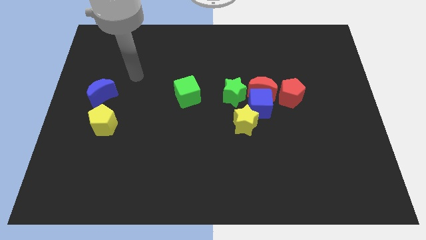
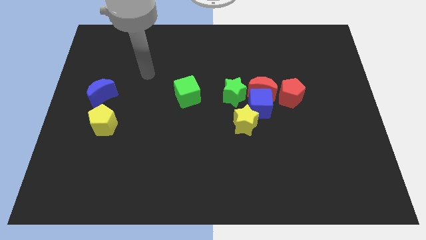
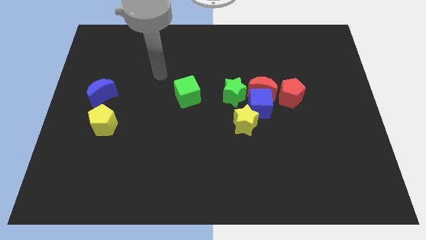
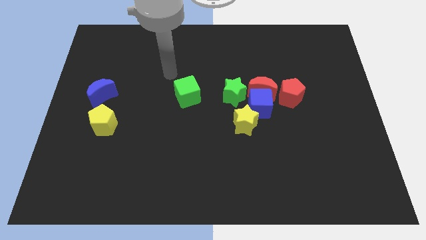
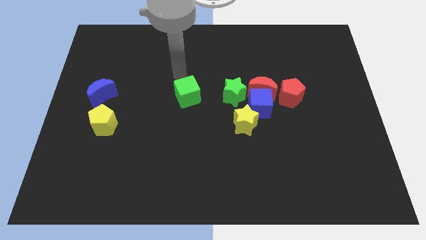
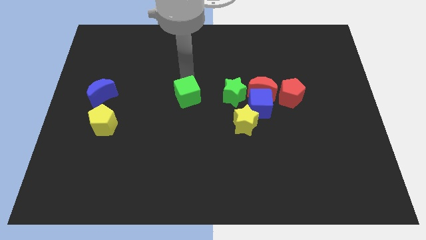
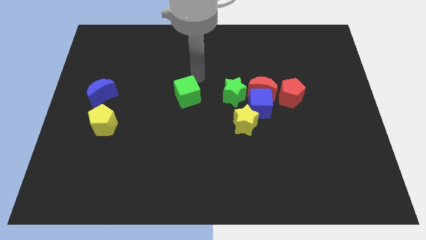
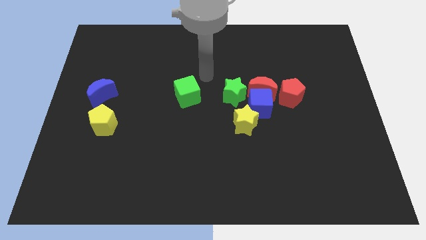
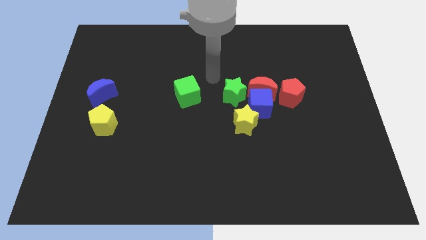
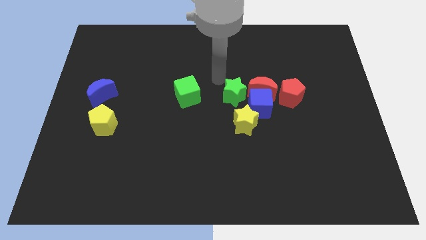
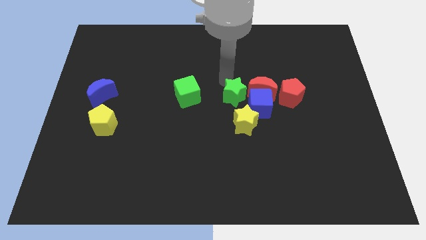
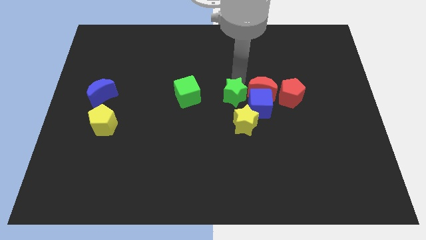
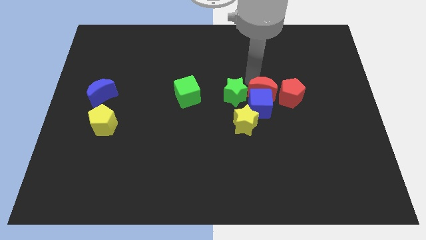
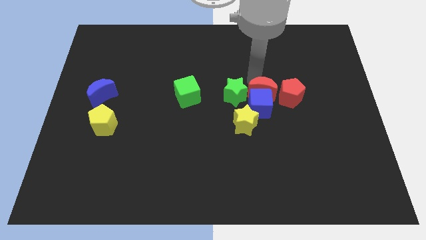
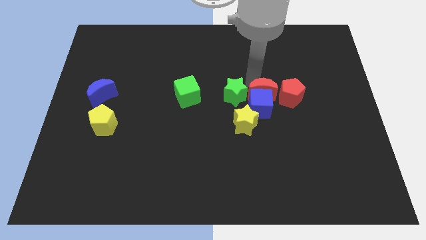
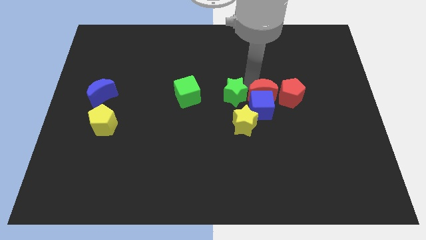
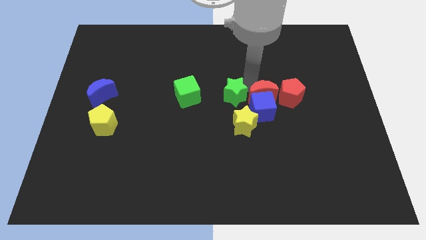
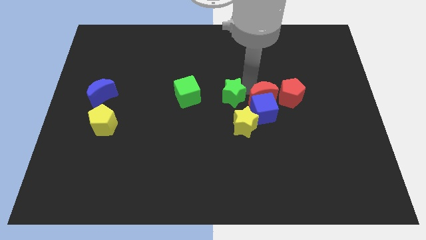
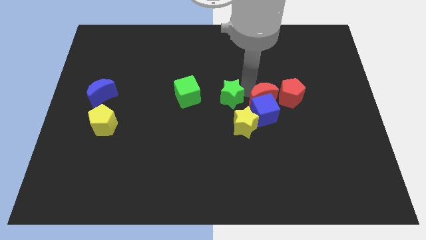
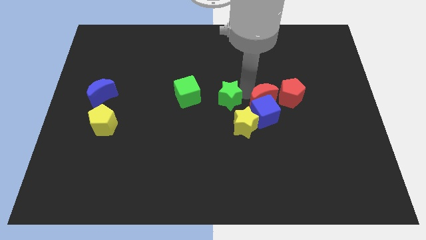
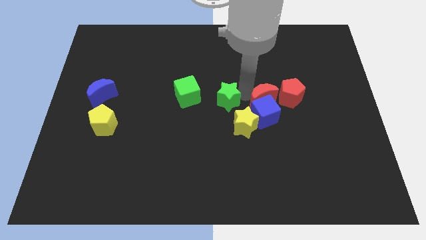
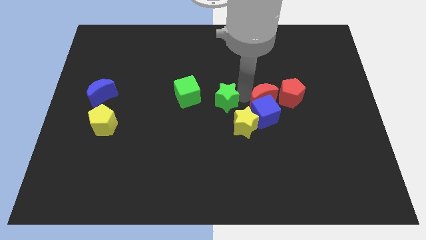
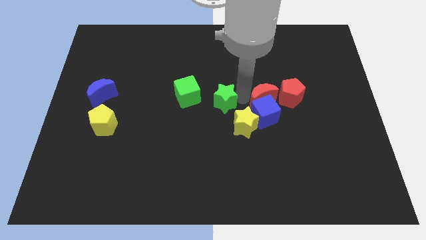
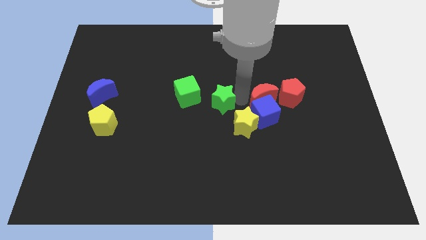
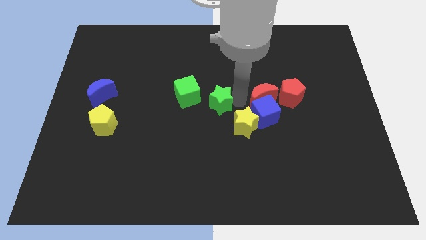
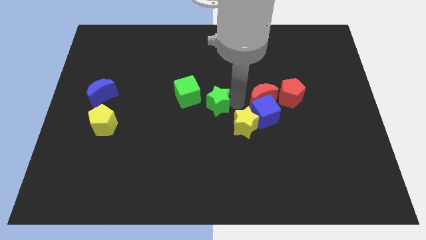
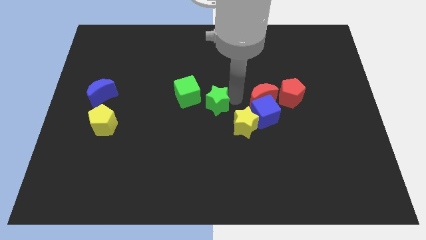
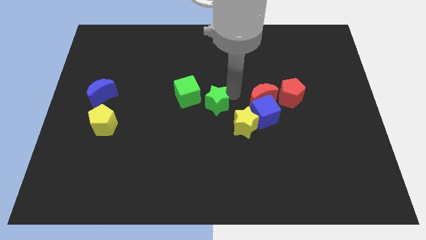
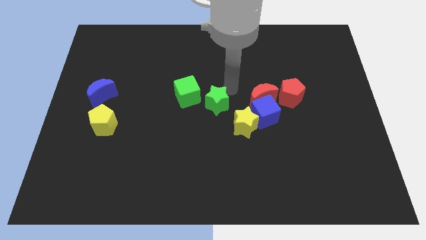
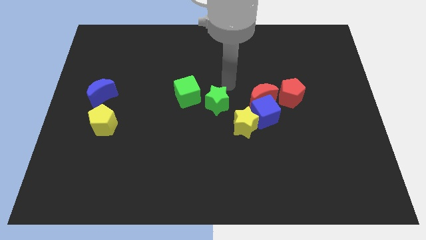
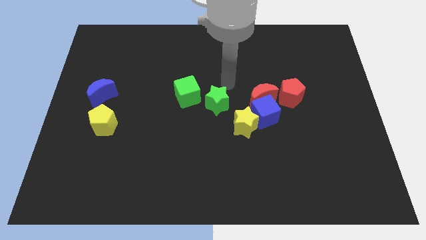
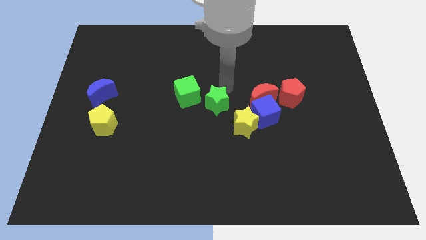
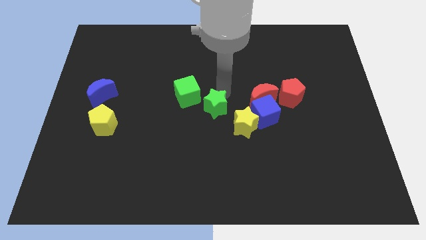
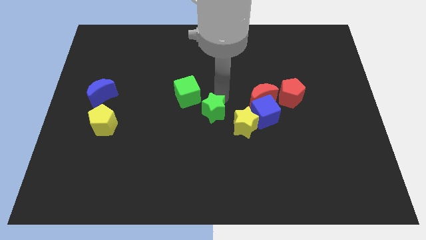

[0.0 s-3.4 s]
push the green star a bit down and left

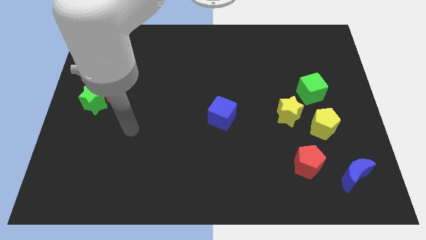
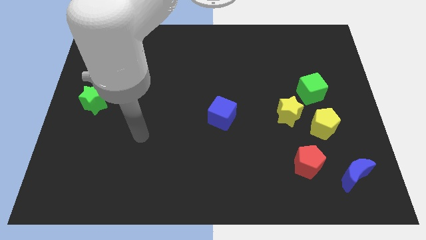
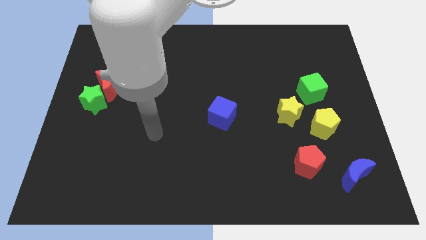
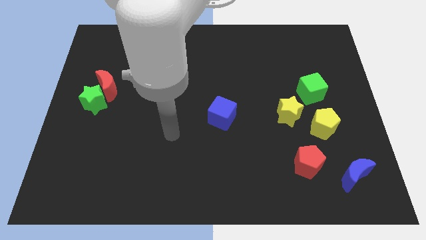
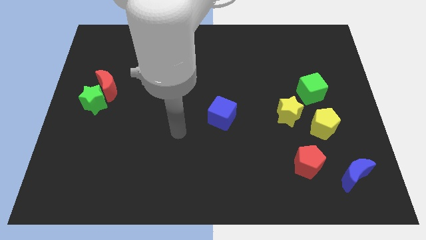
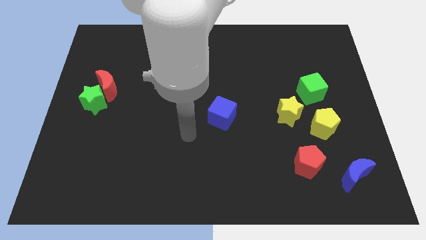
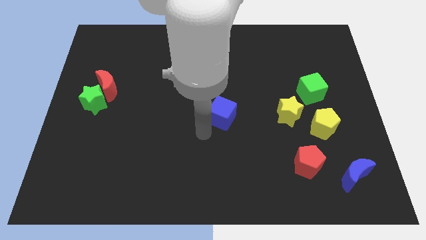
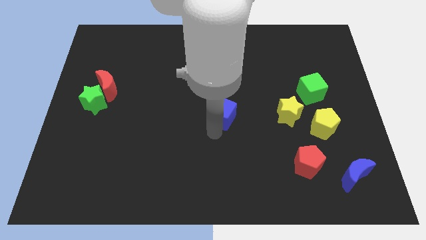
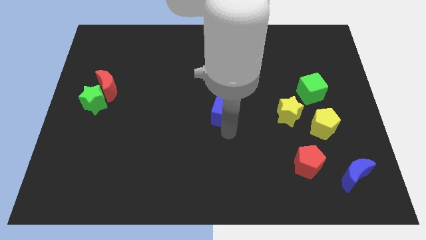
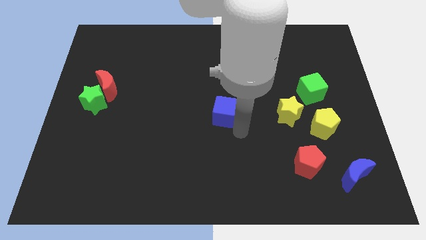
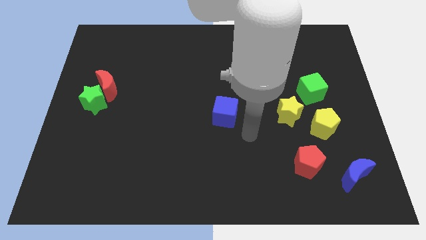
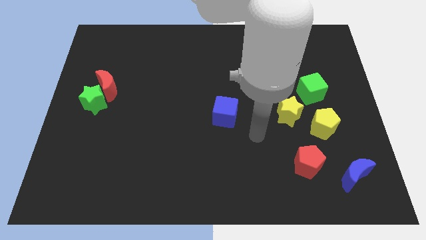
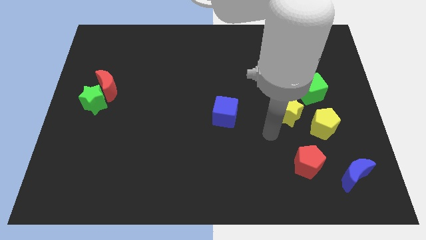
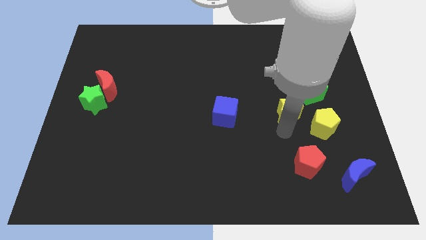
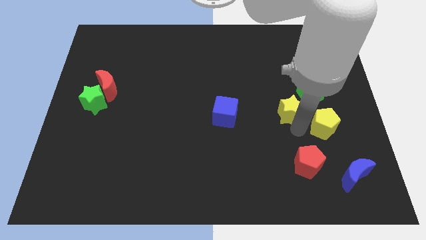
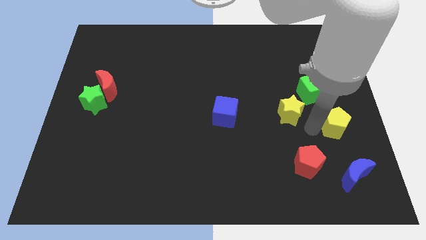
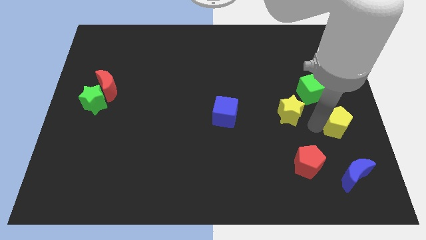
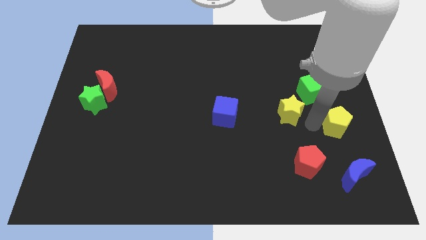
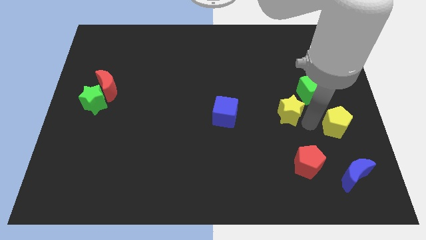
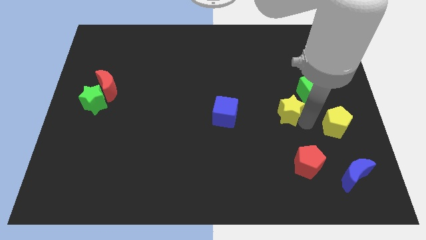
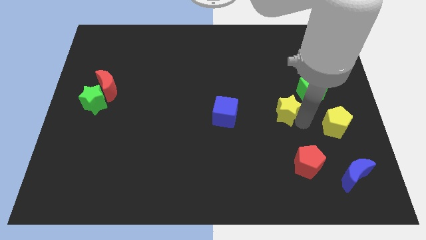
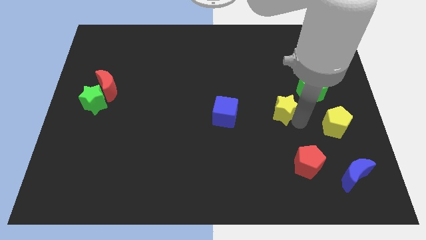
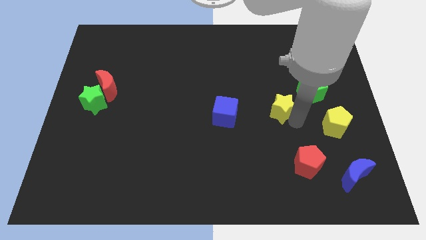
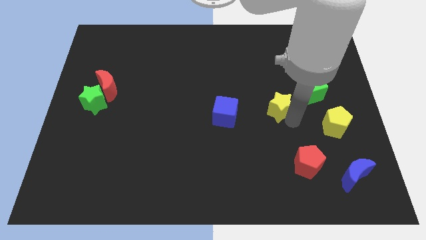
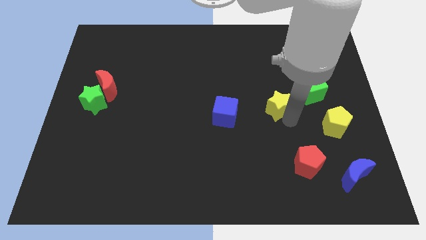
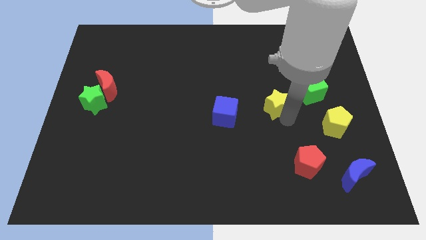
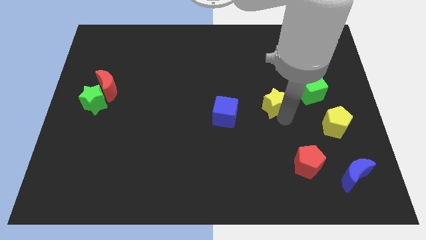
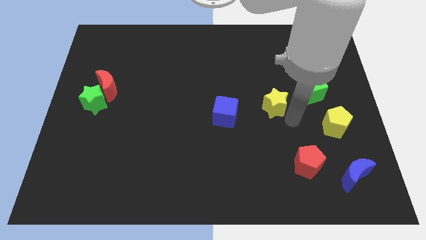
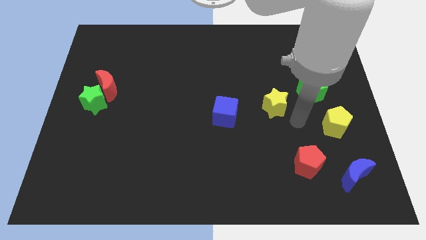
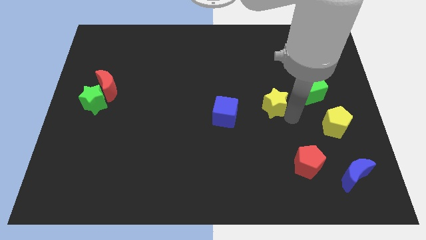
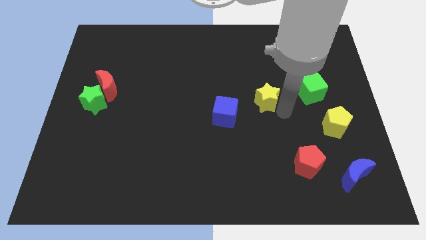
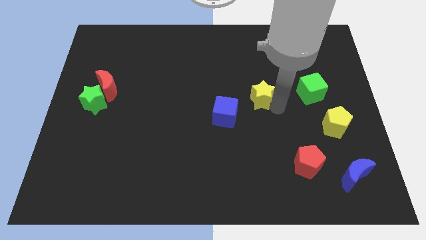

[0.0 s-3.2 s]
push the yellow star a bit upwards and then to the left

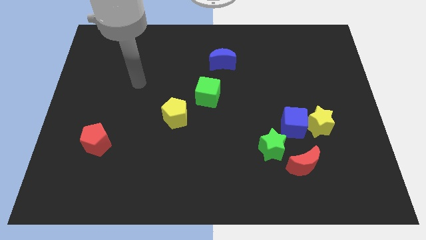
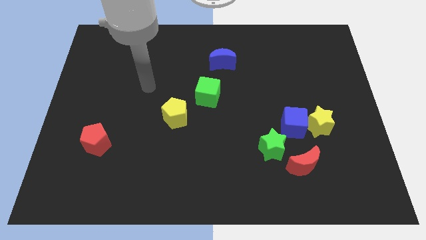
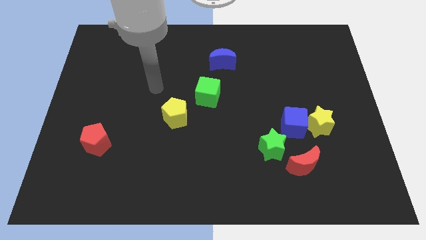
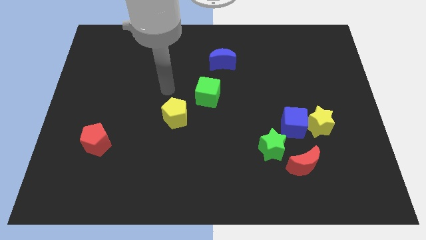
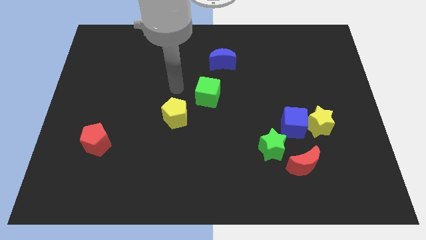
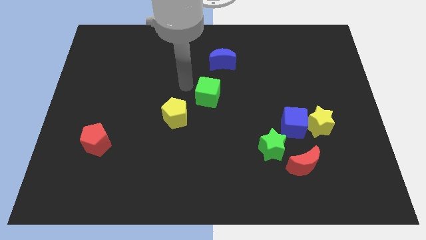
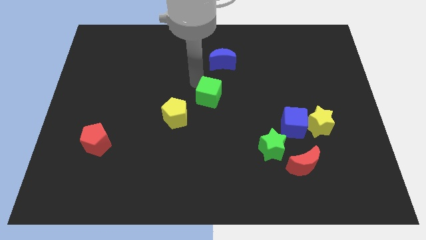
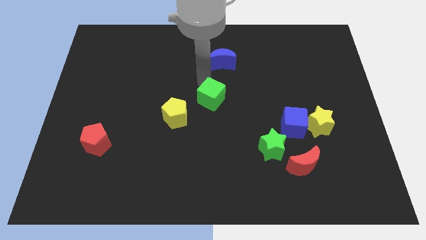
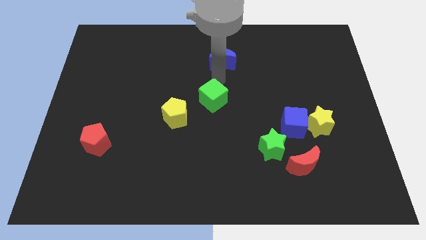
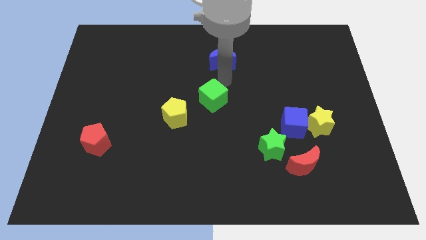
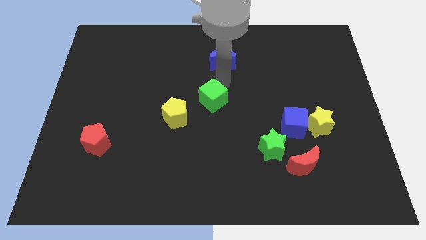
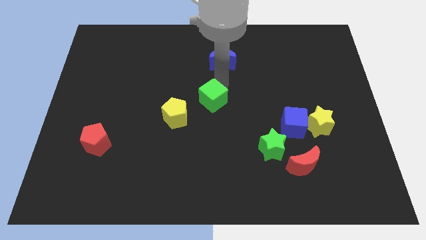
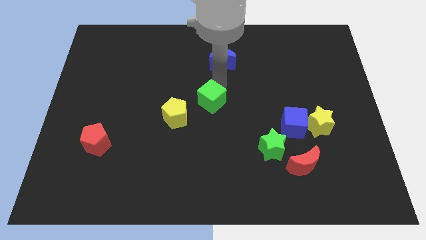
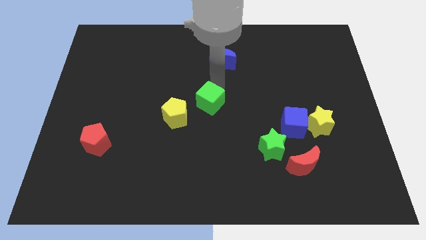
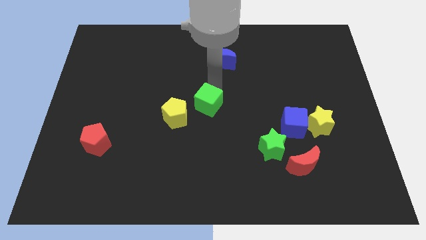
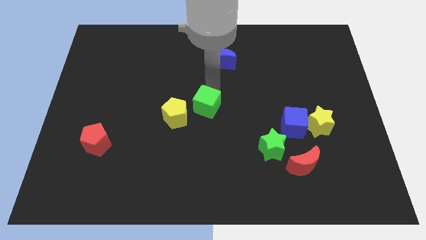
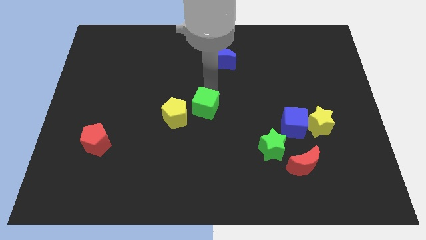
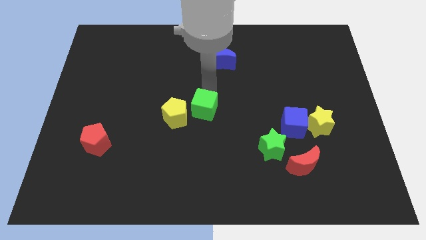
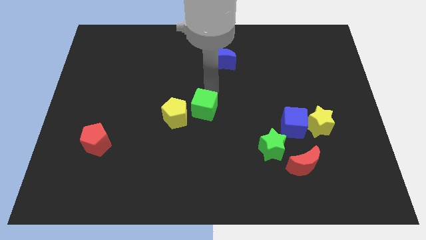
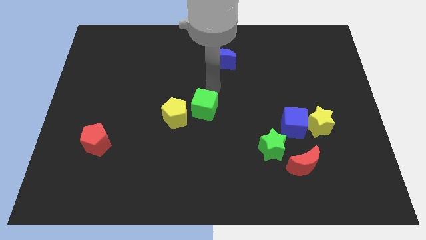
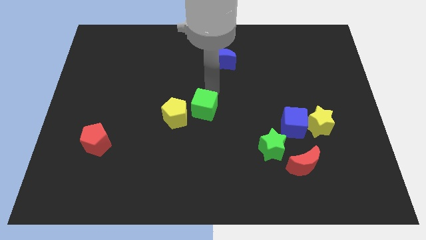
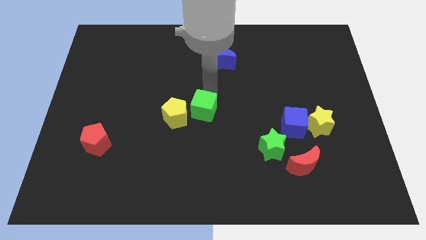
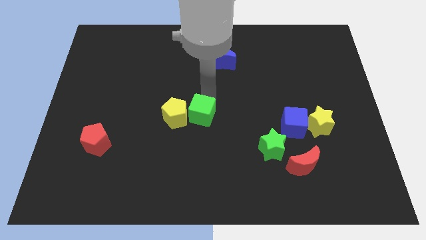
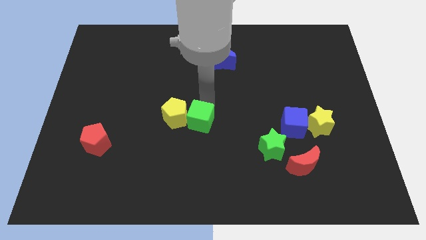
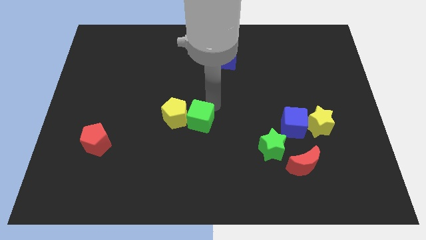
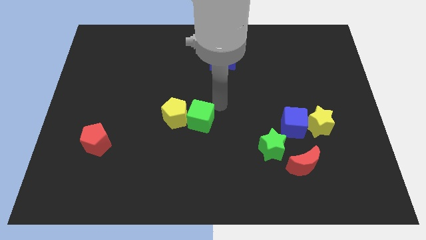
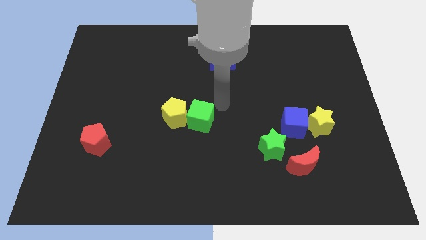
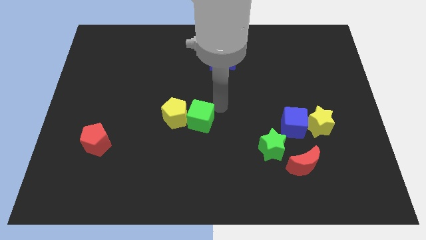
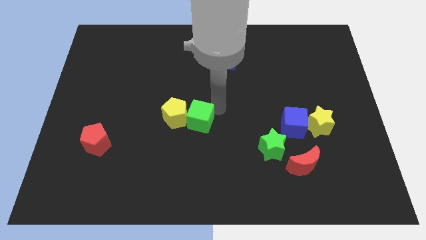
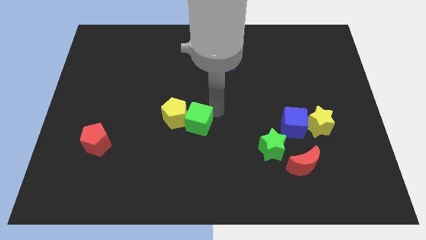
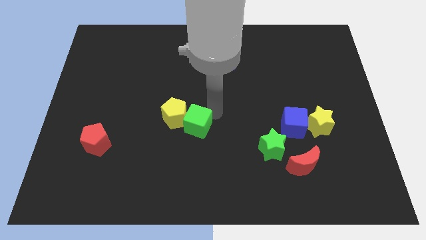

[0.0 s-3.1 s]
move the green cube a little downwards and to the left
